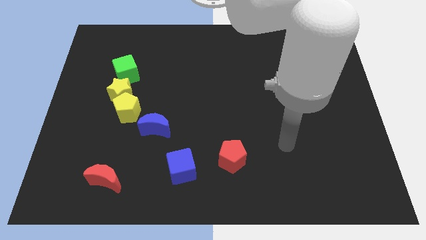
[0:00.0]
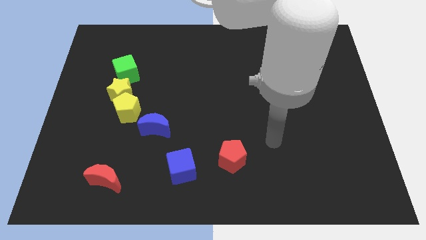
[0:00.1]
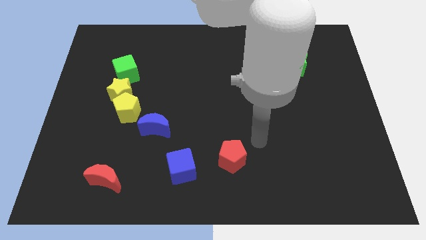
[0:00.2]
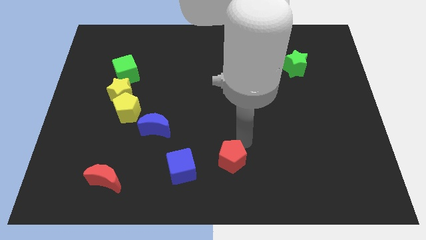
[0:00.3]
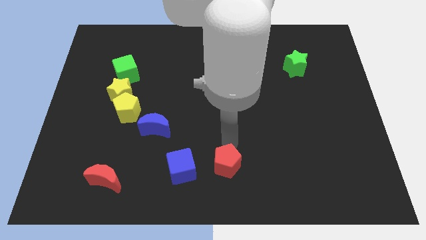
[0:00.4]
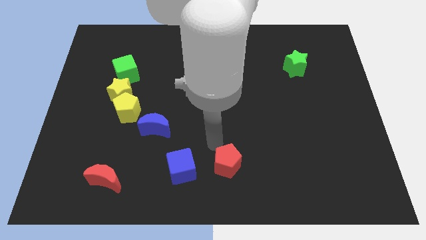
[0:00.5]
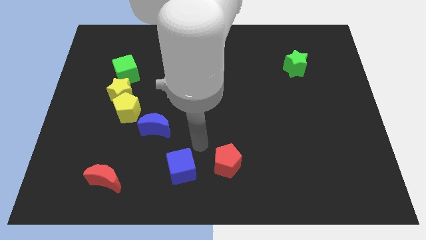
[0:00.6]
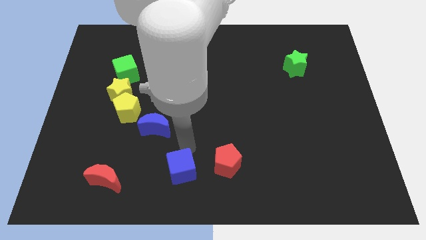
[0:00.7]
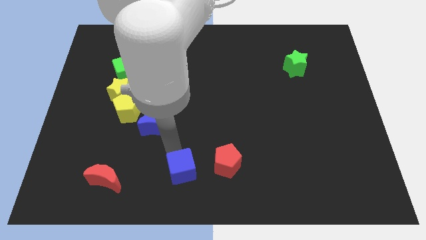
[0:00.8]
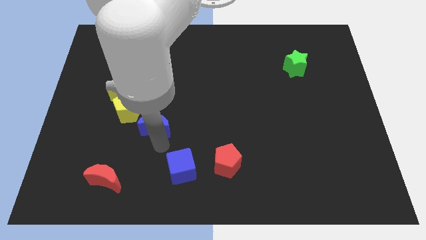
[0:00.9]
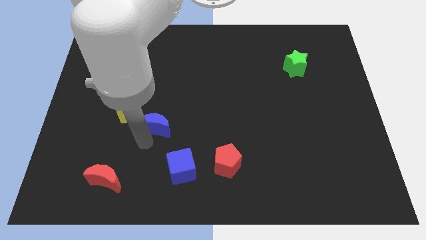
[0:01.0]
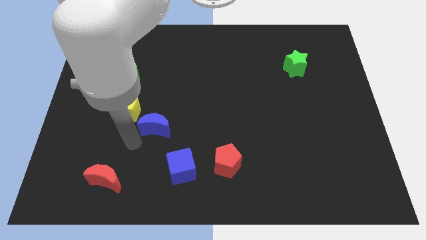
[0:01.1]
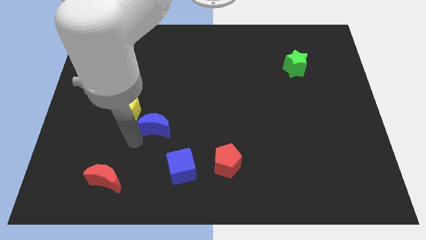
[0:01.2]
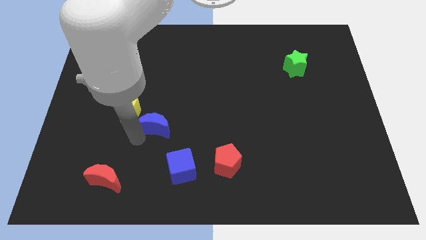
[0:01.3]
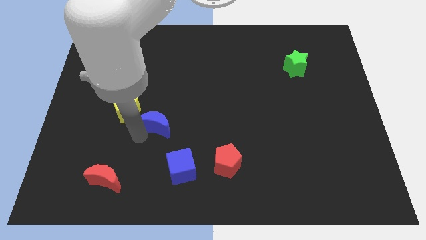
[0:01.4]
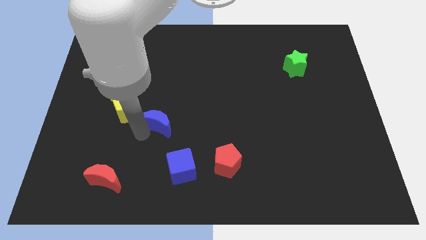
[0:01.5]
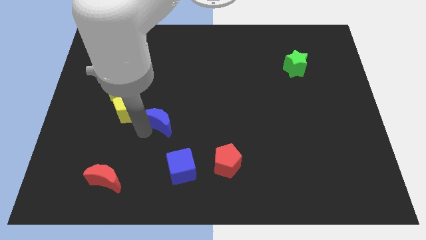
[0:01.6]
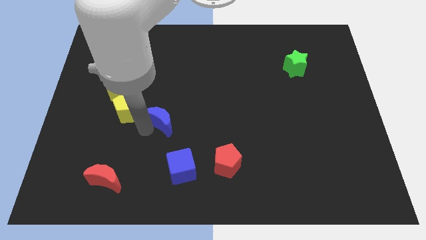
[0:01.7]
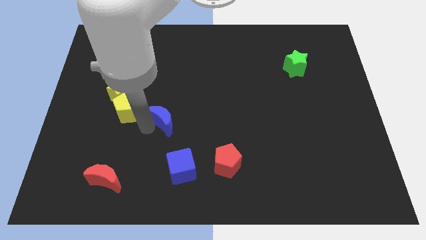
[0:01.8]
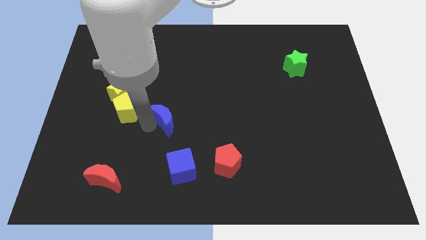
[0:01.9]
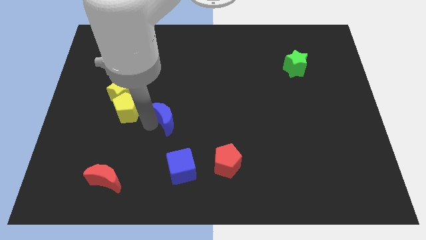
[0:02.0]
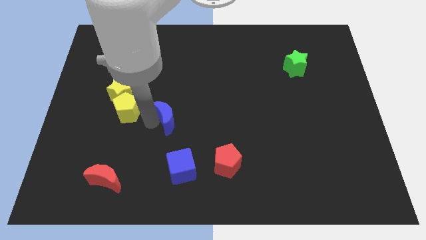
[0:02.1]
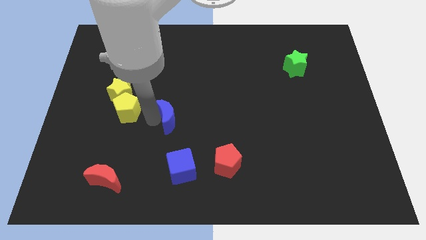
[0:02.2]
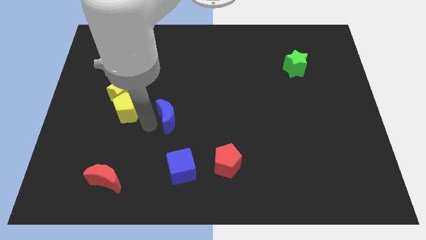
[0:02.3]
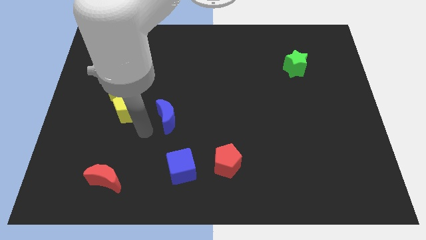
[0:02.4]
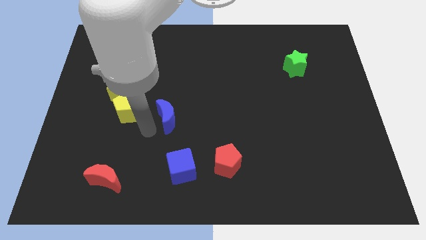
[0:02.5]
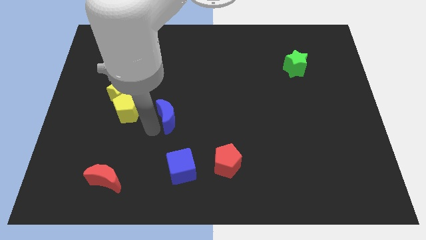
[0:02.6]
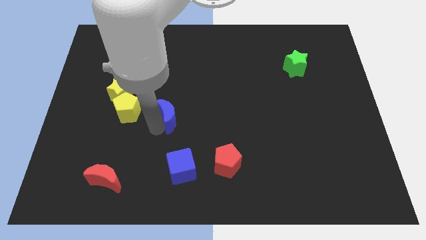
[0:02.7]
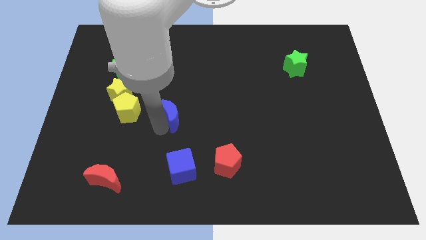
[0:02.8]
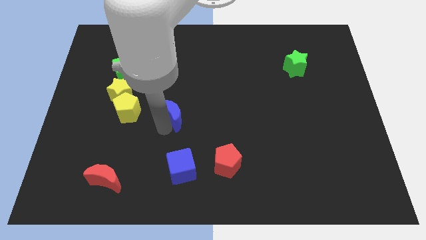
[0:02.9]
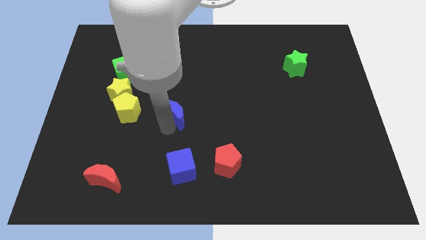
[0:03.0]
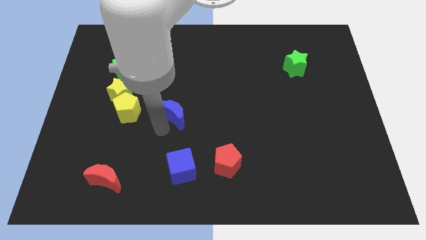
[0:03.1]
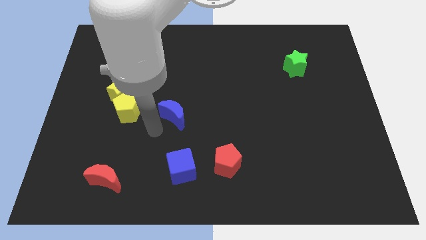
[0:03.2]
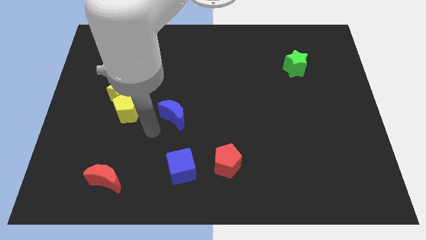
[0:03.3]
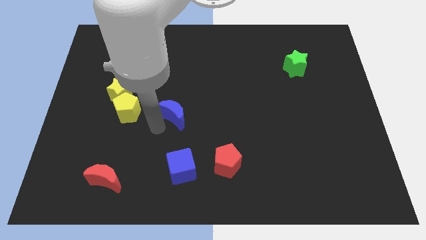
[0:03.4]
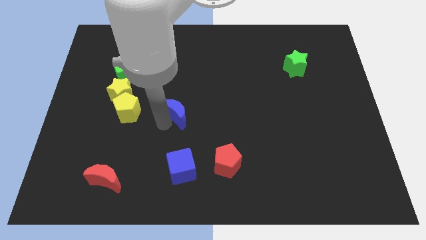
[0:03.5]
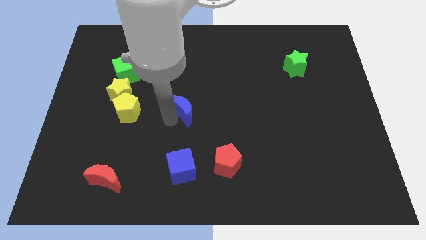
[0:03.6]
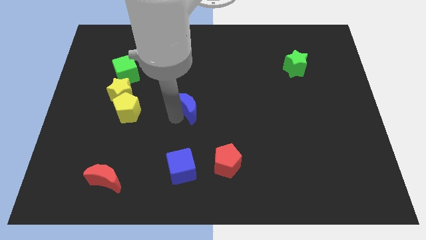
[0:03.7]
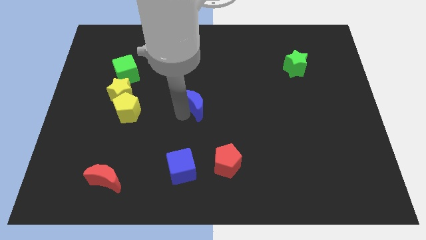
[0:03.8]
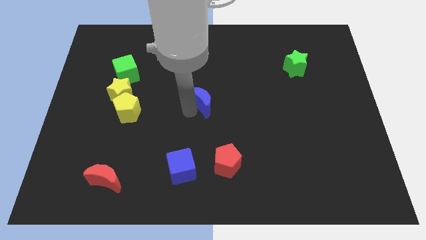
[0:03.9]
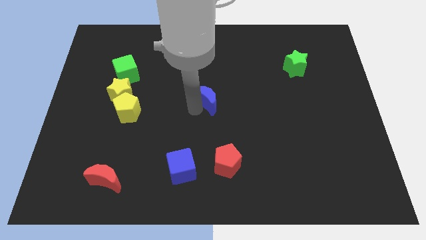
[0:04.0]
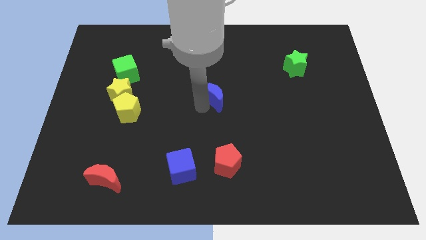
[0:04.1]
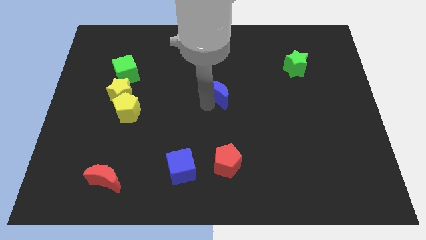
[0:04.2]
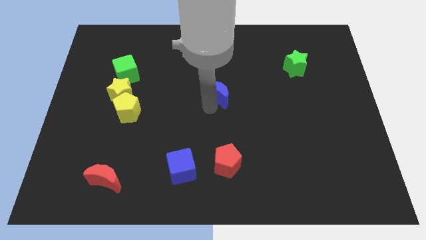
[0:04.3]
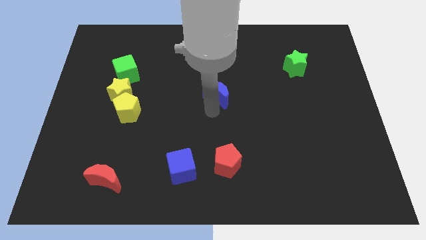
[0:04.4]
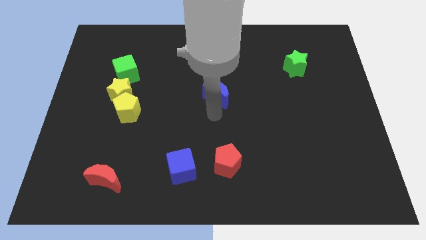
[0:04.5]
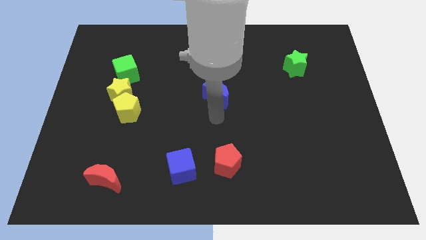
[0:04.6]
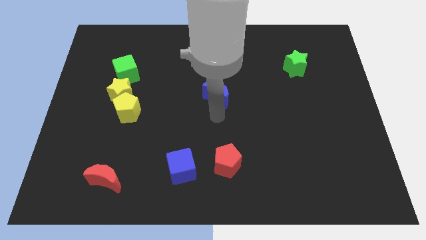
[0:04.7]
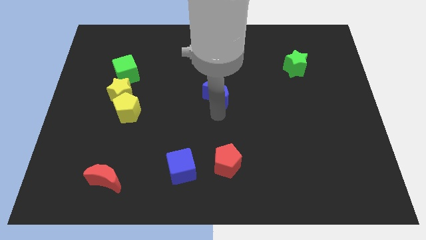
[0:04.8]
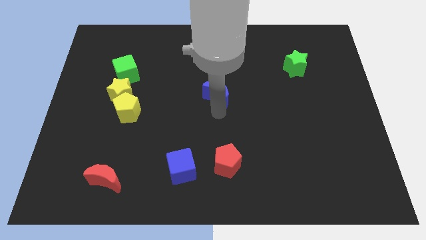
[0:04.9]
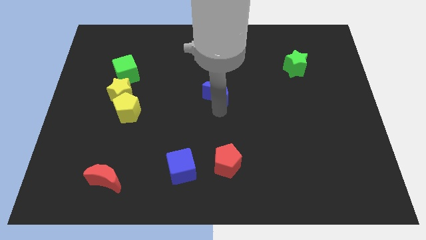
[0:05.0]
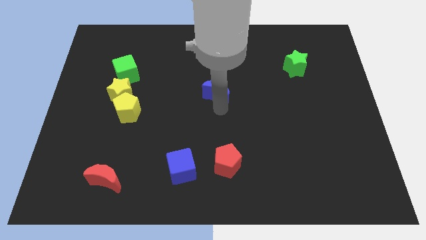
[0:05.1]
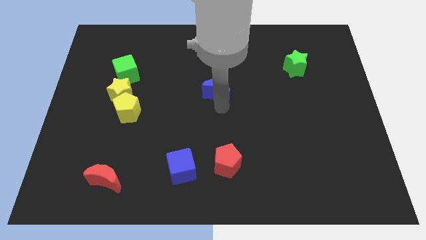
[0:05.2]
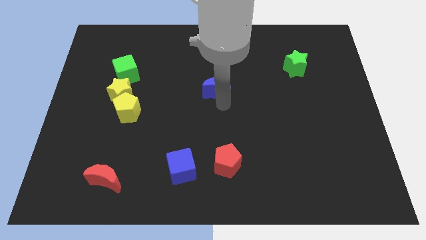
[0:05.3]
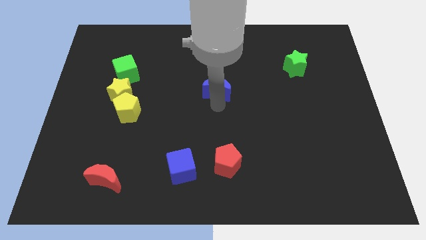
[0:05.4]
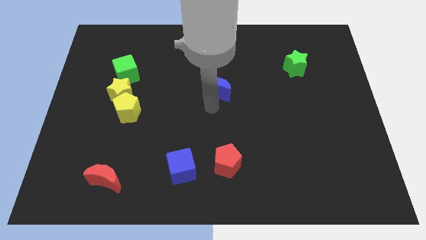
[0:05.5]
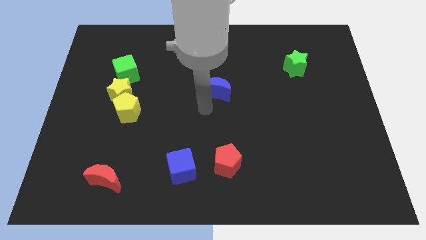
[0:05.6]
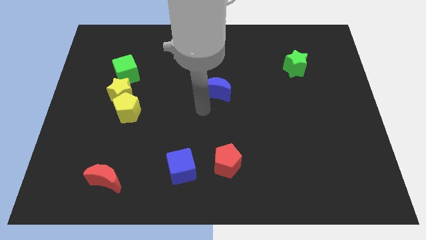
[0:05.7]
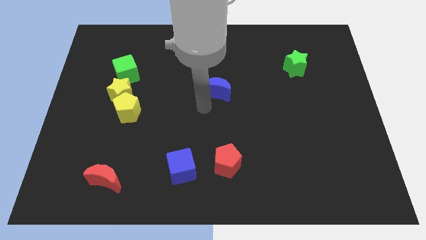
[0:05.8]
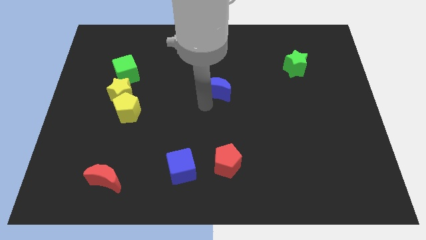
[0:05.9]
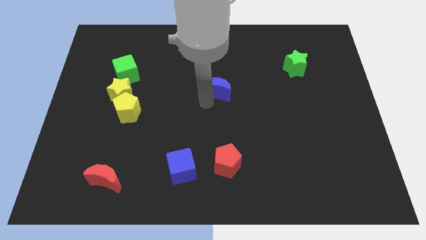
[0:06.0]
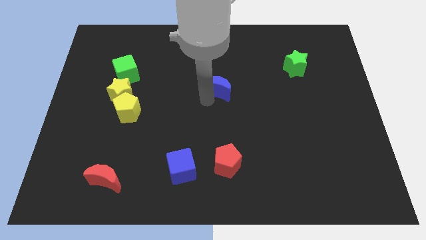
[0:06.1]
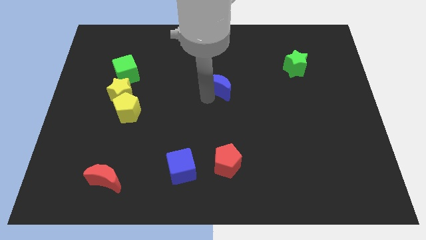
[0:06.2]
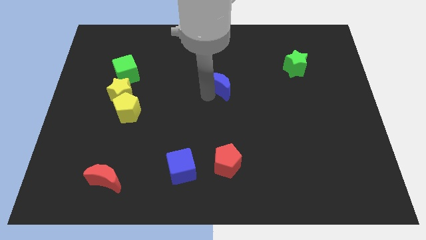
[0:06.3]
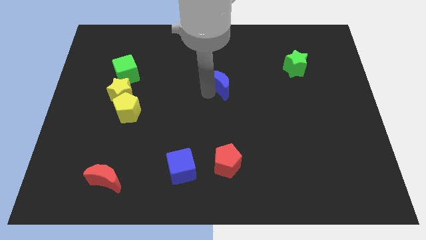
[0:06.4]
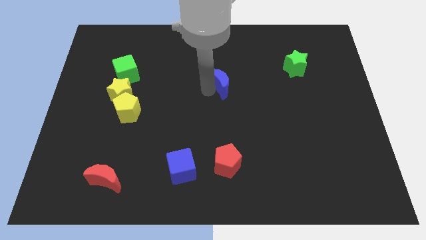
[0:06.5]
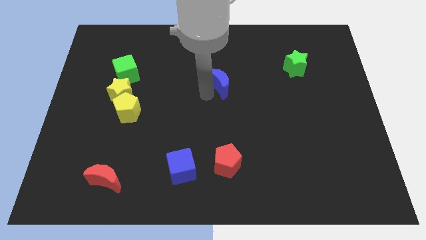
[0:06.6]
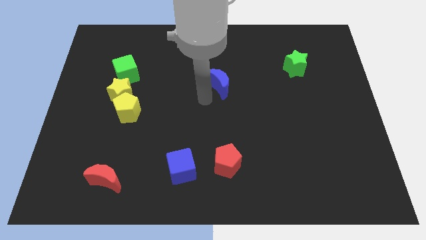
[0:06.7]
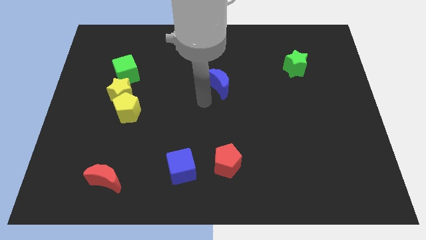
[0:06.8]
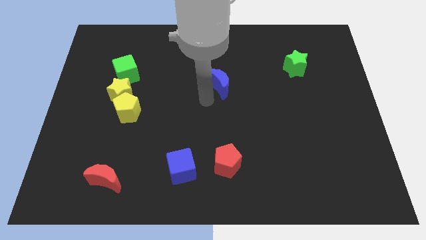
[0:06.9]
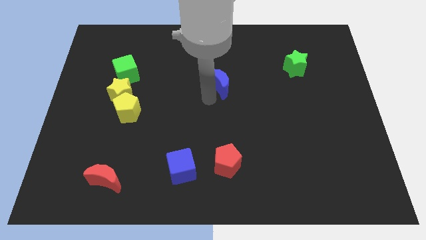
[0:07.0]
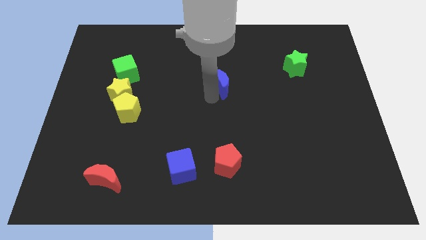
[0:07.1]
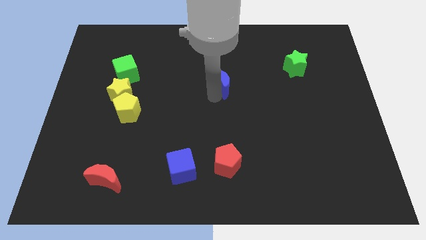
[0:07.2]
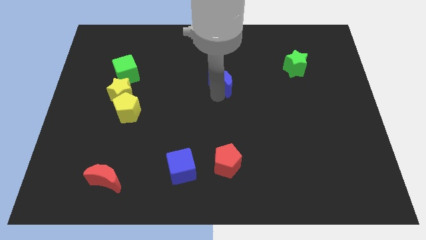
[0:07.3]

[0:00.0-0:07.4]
slide the blue moon upwards and then to the right

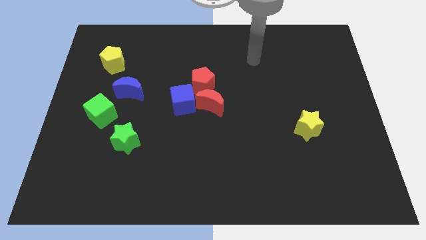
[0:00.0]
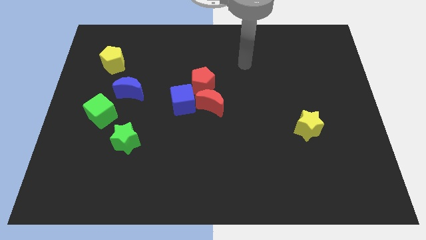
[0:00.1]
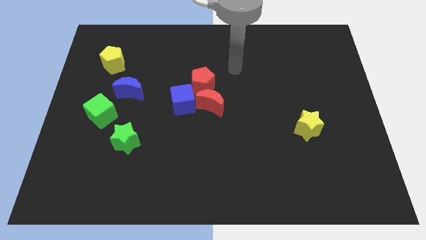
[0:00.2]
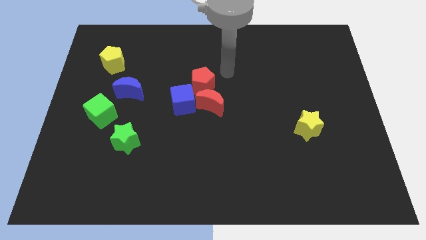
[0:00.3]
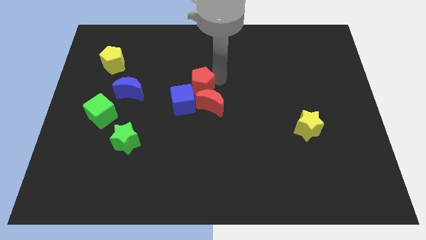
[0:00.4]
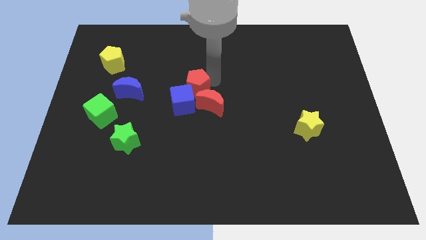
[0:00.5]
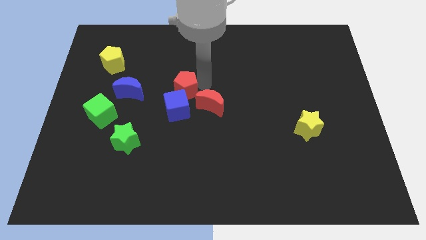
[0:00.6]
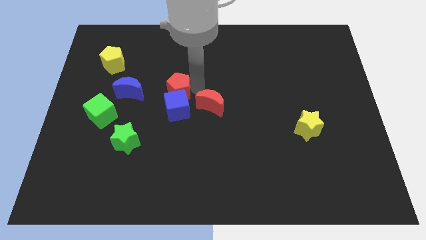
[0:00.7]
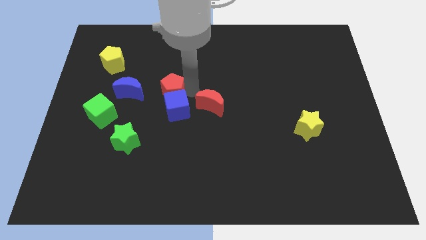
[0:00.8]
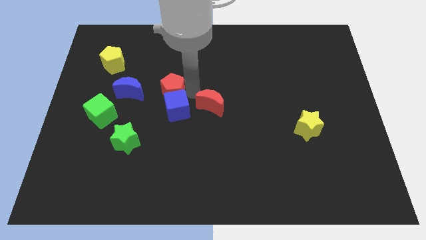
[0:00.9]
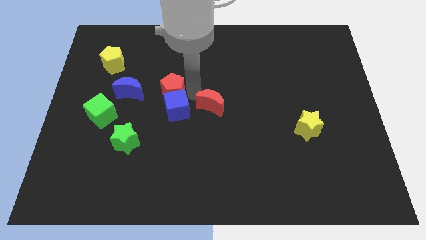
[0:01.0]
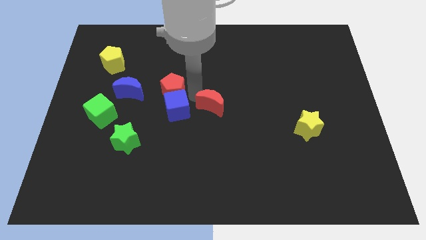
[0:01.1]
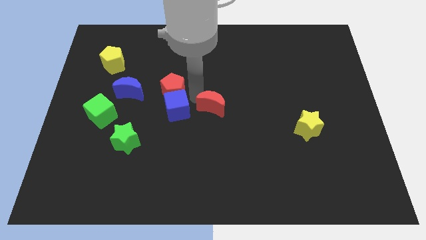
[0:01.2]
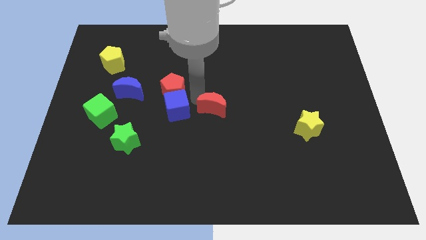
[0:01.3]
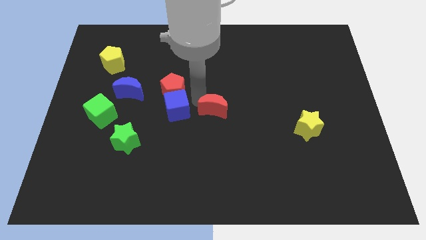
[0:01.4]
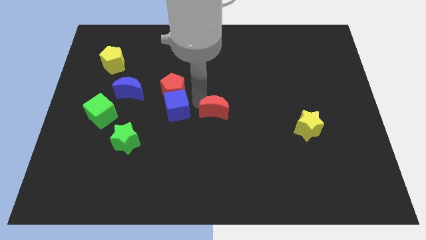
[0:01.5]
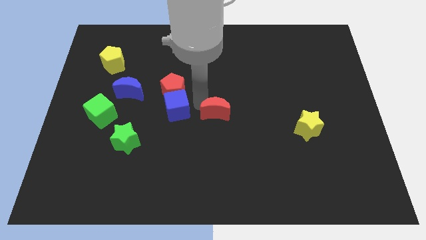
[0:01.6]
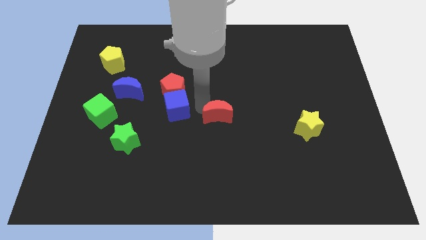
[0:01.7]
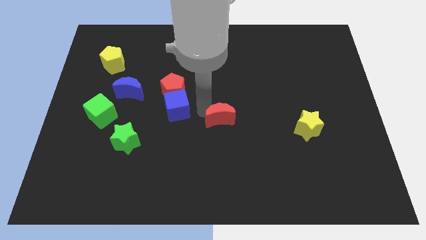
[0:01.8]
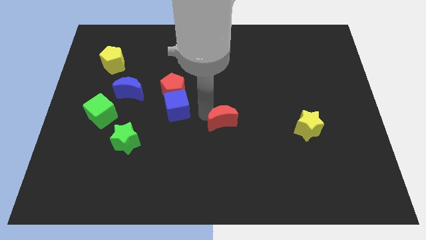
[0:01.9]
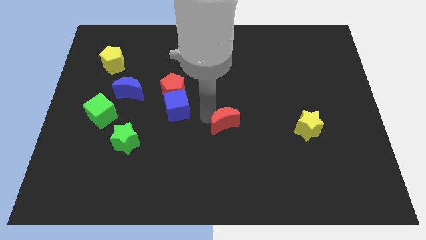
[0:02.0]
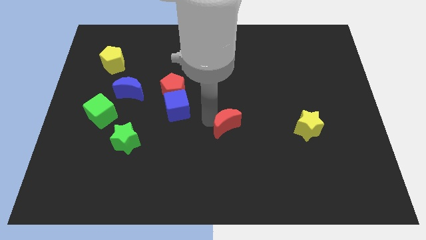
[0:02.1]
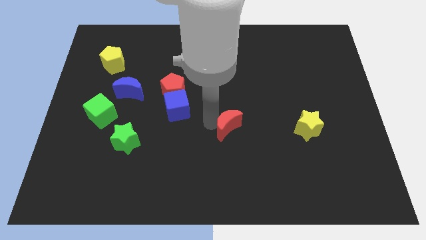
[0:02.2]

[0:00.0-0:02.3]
slightly slide the red moon downwards and then to the right
